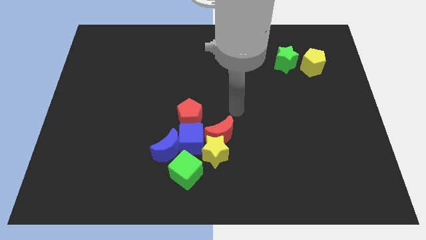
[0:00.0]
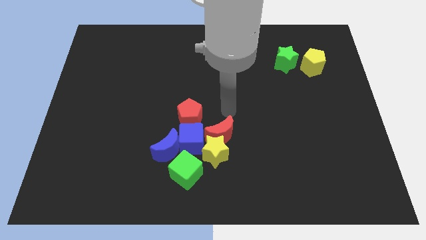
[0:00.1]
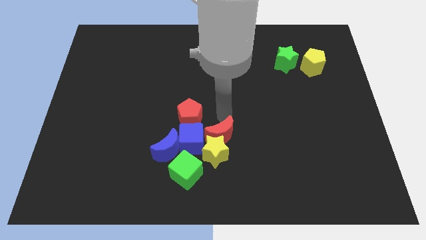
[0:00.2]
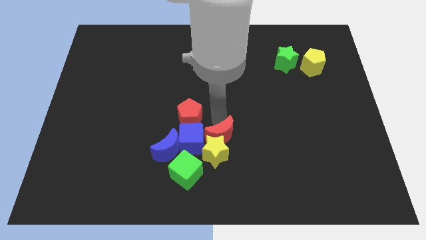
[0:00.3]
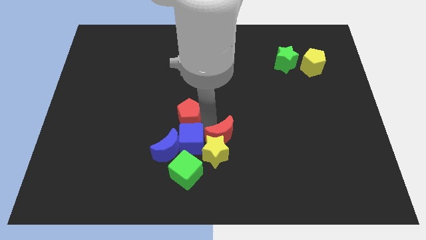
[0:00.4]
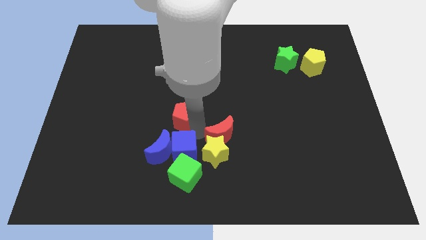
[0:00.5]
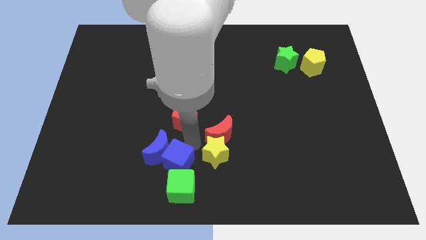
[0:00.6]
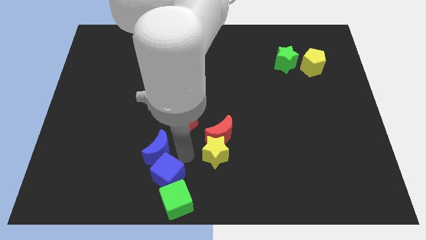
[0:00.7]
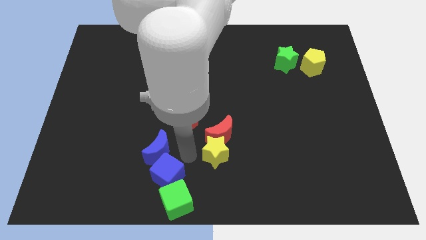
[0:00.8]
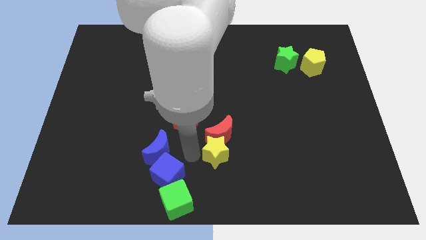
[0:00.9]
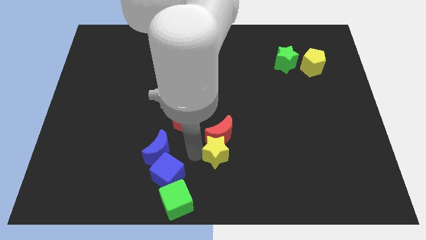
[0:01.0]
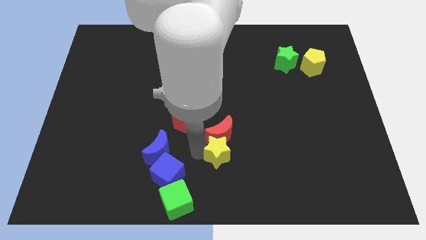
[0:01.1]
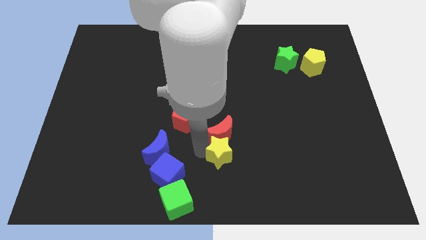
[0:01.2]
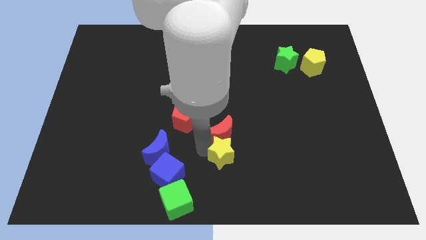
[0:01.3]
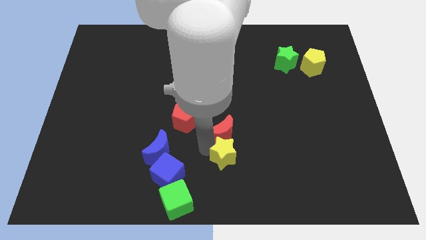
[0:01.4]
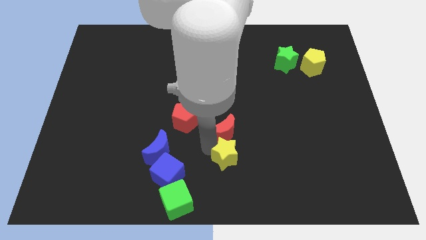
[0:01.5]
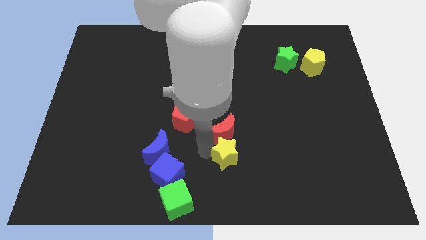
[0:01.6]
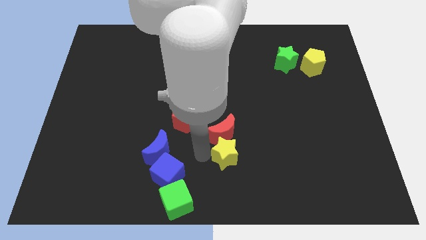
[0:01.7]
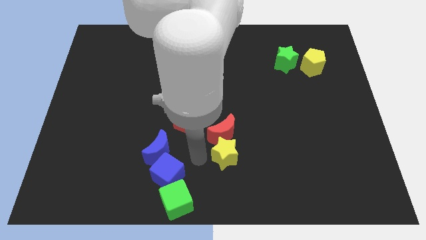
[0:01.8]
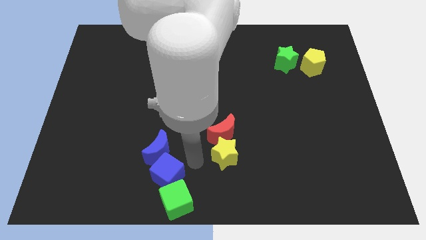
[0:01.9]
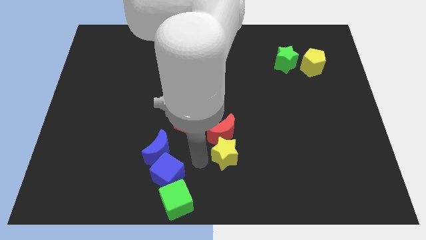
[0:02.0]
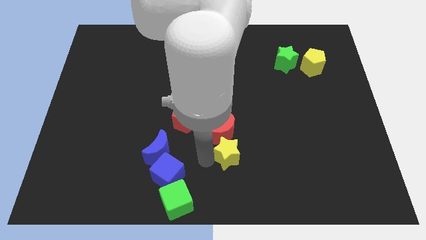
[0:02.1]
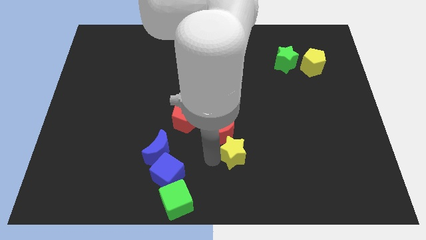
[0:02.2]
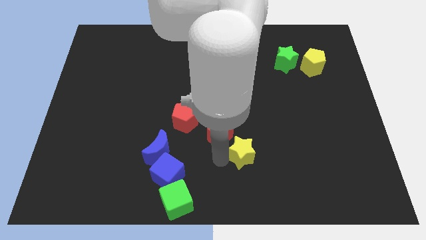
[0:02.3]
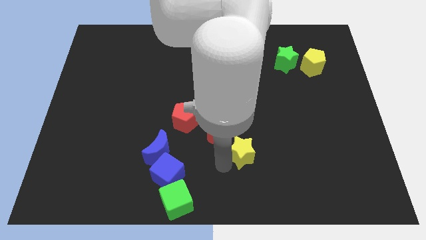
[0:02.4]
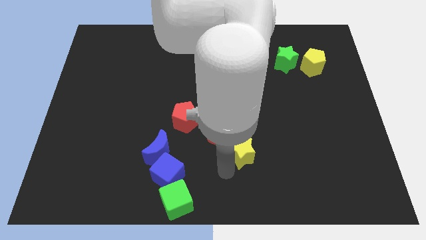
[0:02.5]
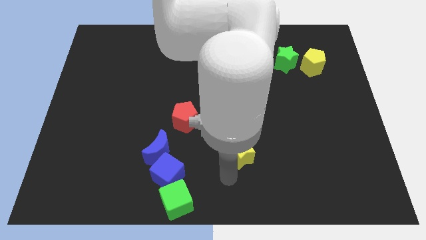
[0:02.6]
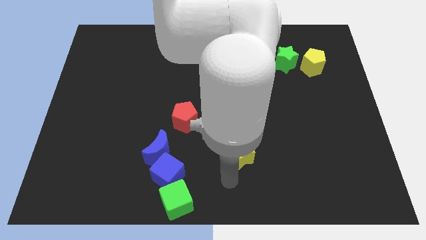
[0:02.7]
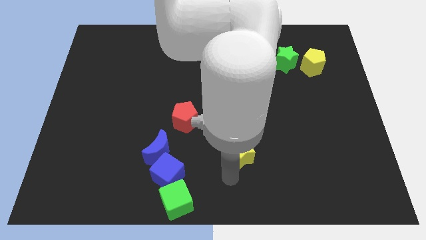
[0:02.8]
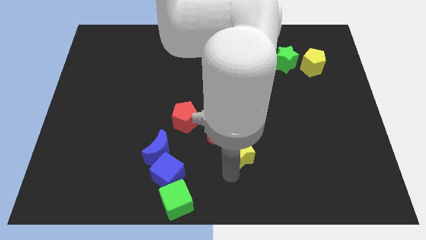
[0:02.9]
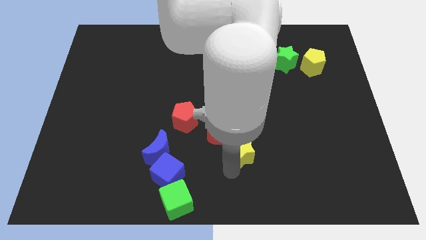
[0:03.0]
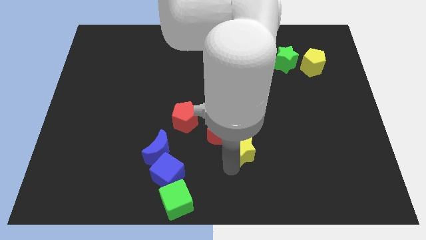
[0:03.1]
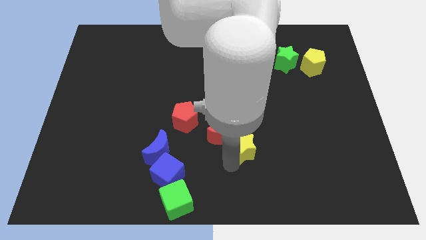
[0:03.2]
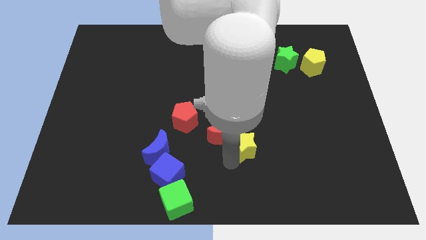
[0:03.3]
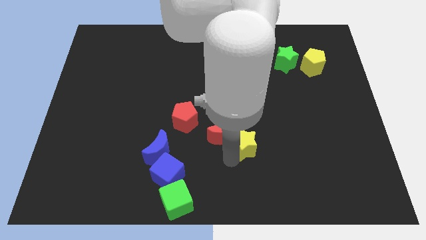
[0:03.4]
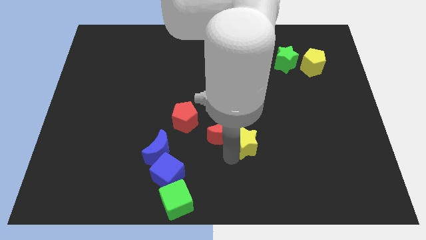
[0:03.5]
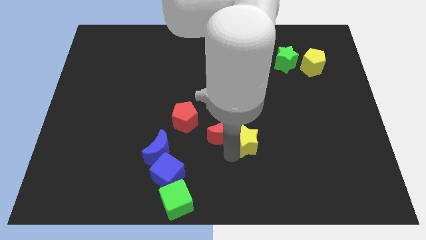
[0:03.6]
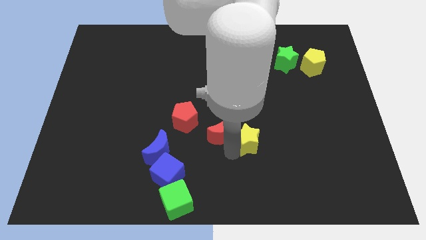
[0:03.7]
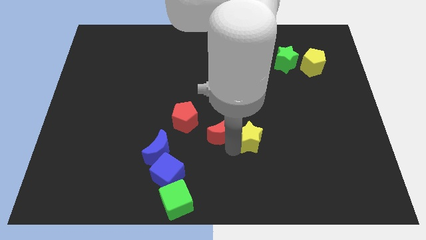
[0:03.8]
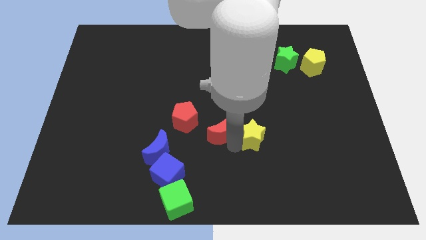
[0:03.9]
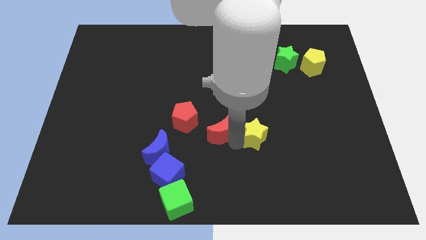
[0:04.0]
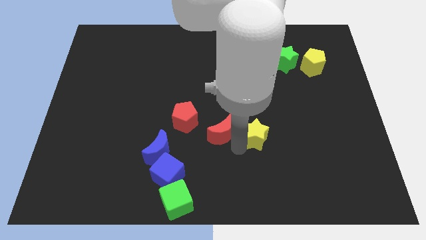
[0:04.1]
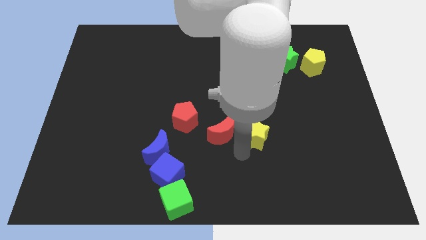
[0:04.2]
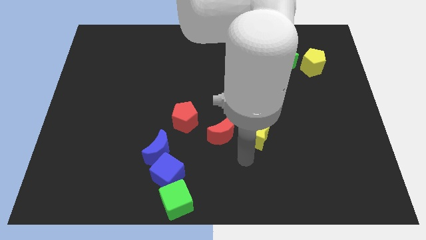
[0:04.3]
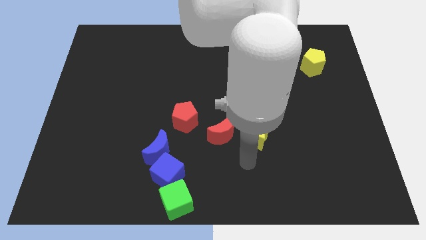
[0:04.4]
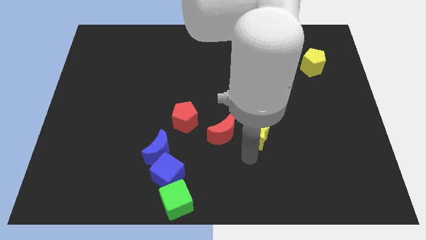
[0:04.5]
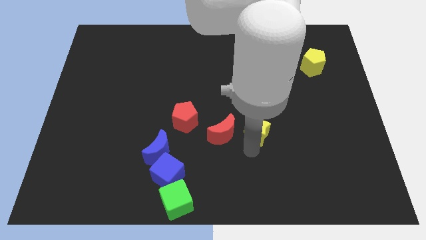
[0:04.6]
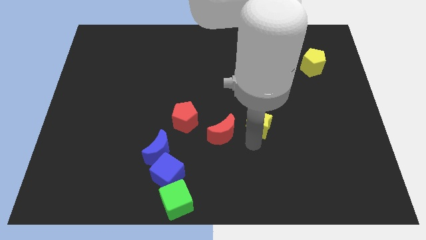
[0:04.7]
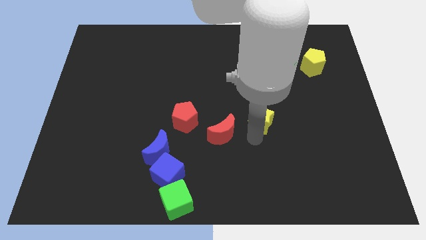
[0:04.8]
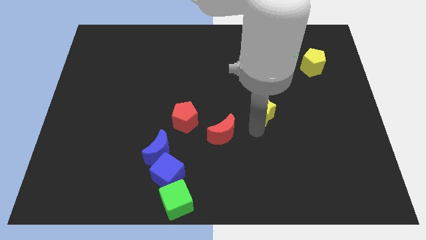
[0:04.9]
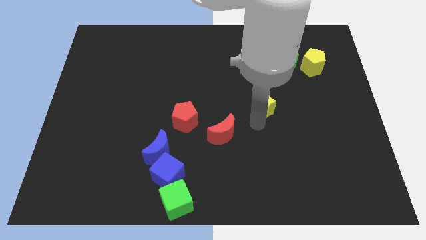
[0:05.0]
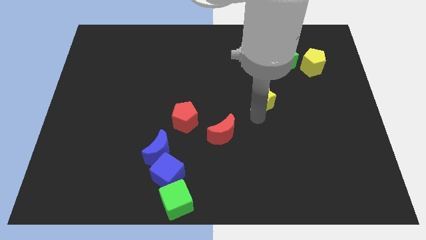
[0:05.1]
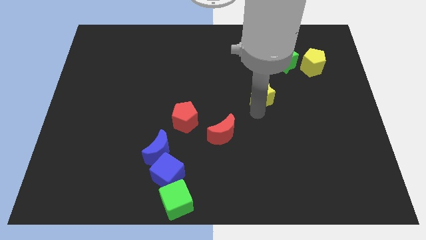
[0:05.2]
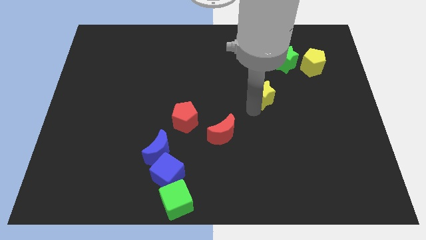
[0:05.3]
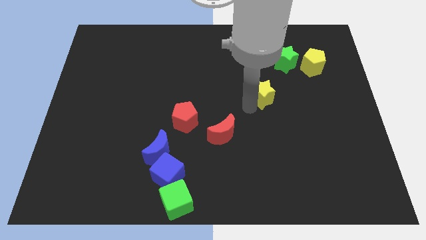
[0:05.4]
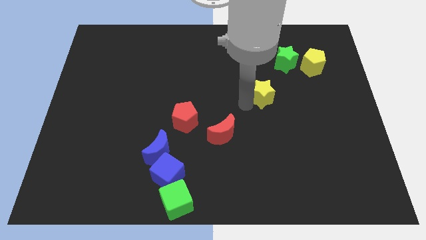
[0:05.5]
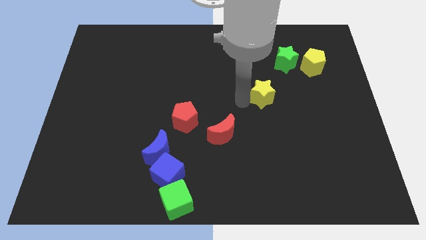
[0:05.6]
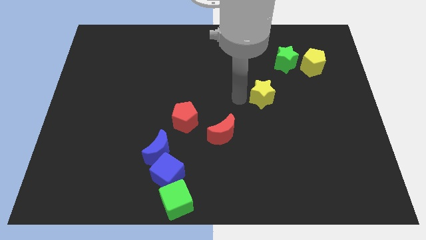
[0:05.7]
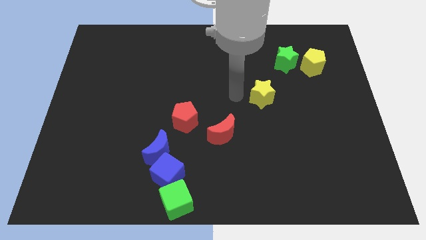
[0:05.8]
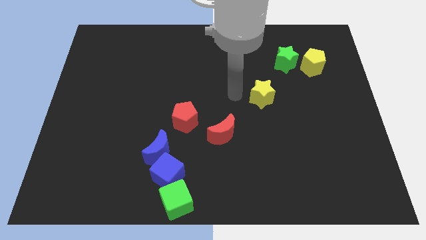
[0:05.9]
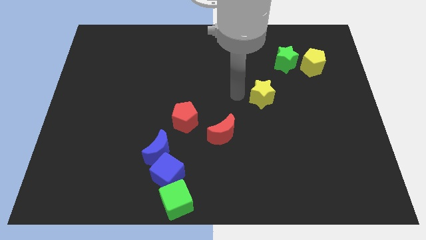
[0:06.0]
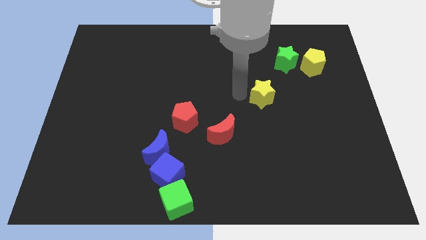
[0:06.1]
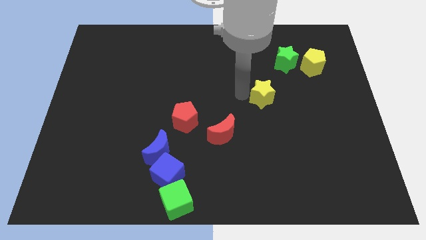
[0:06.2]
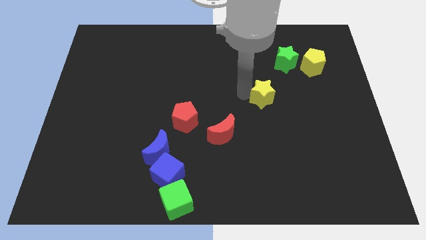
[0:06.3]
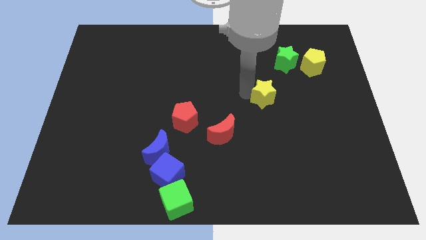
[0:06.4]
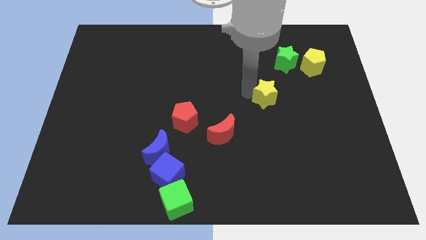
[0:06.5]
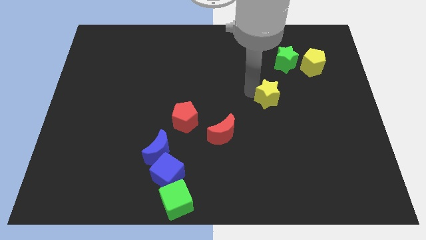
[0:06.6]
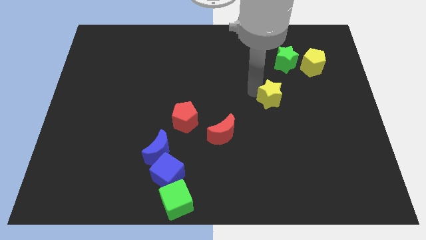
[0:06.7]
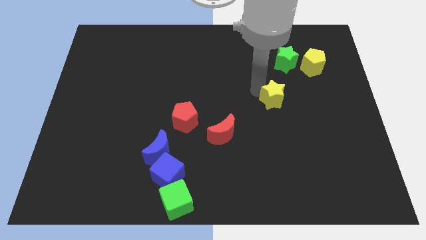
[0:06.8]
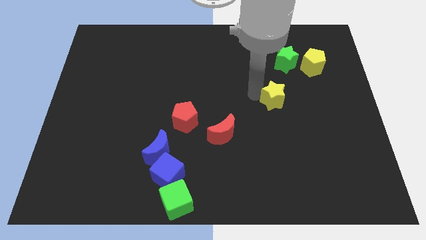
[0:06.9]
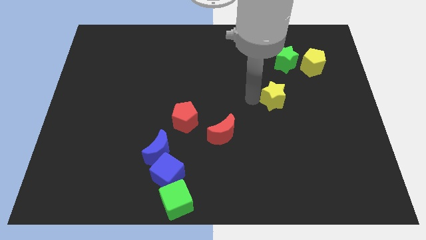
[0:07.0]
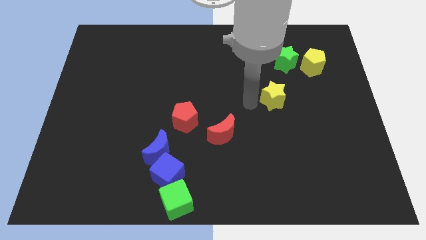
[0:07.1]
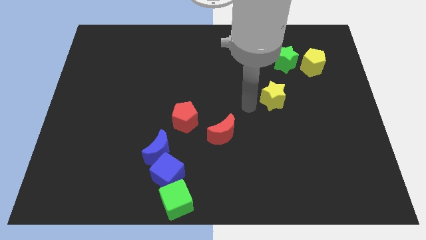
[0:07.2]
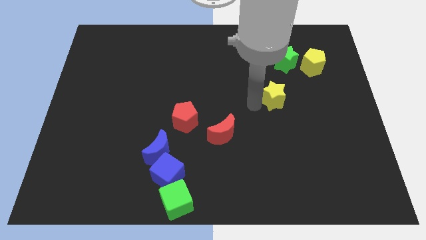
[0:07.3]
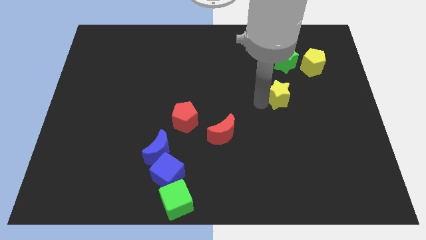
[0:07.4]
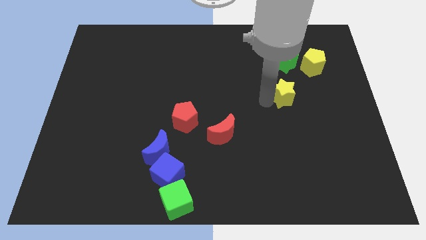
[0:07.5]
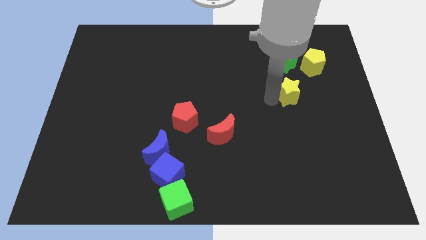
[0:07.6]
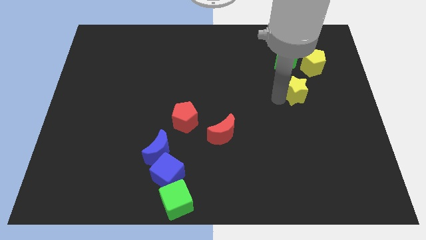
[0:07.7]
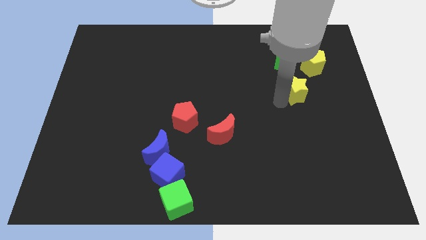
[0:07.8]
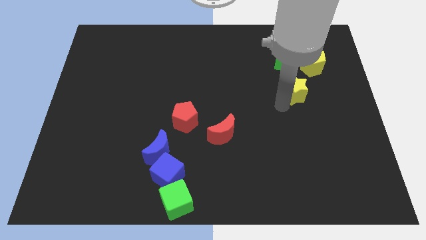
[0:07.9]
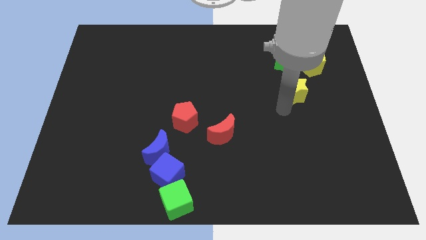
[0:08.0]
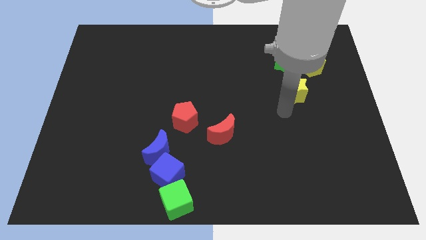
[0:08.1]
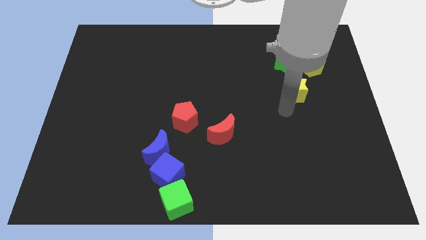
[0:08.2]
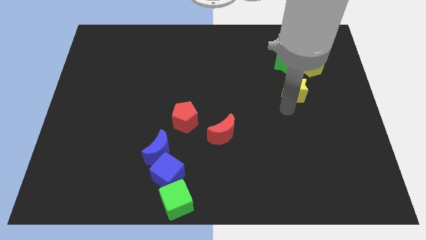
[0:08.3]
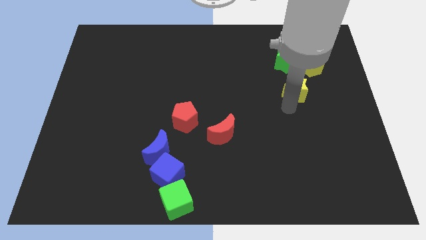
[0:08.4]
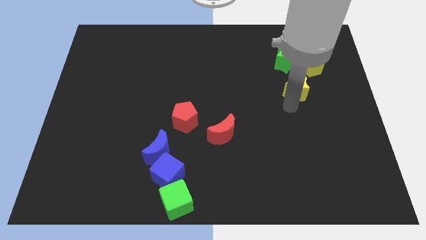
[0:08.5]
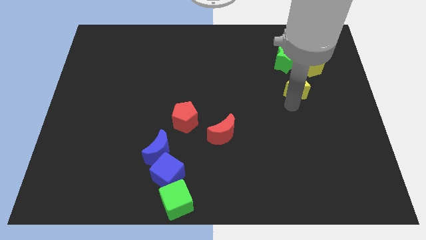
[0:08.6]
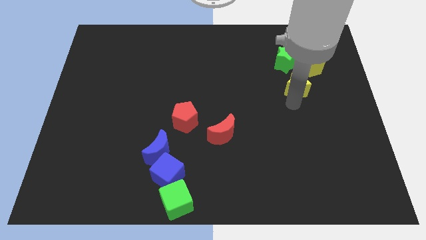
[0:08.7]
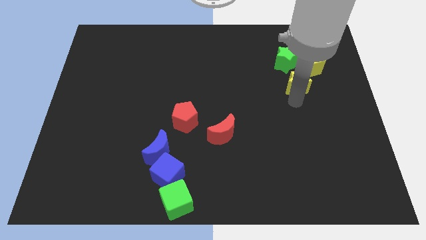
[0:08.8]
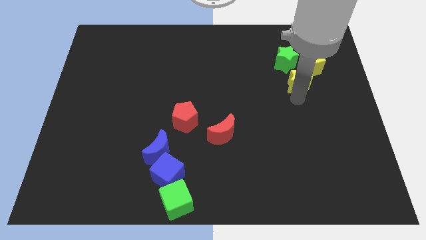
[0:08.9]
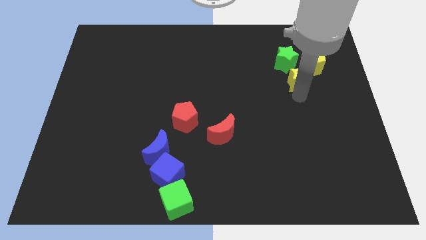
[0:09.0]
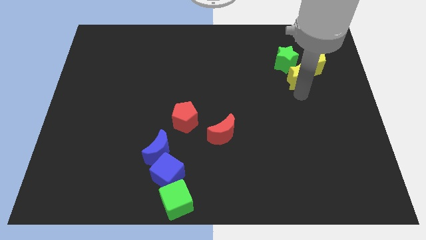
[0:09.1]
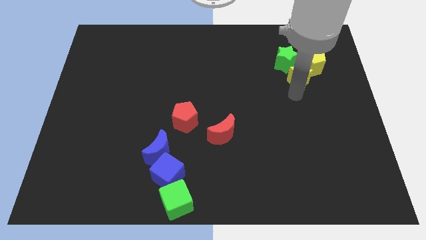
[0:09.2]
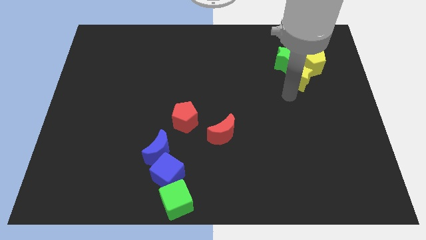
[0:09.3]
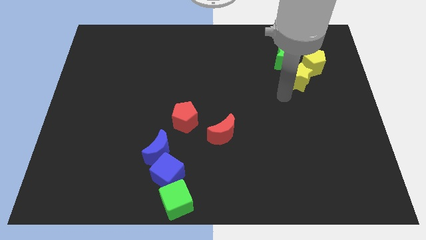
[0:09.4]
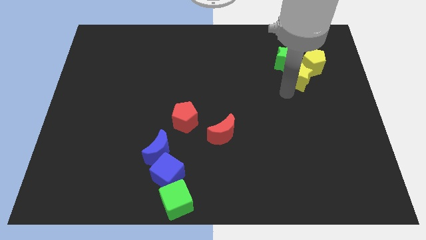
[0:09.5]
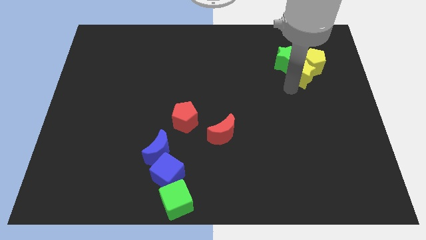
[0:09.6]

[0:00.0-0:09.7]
put the yellow star next to the yellow pentagon
